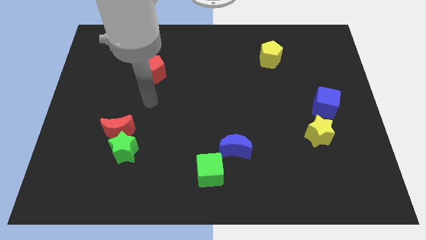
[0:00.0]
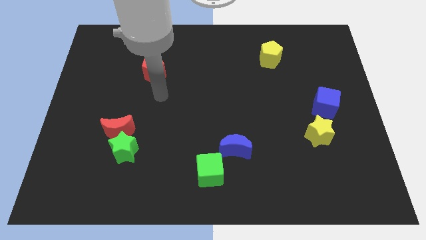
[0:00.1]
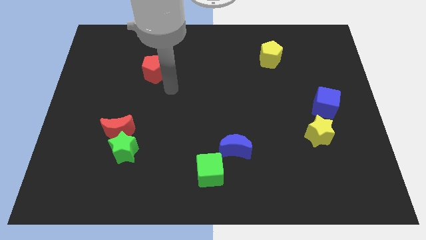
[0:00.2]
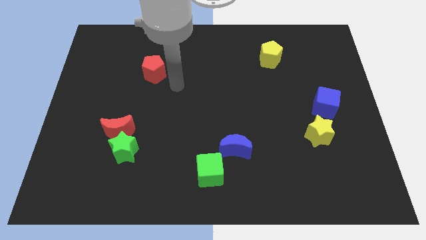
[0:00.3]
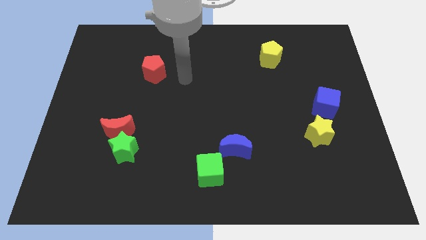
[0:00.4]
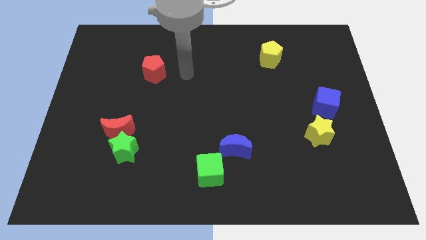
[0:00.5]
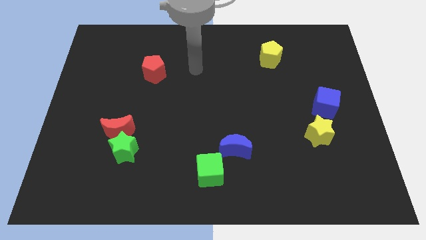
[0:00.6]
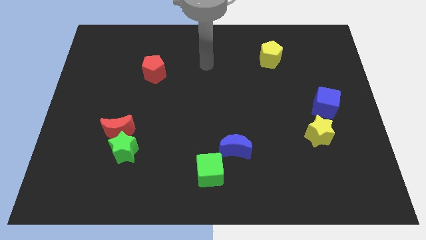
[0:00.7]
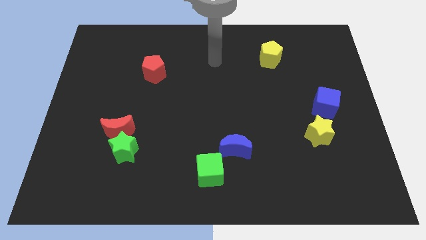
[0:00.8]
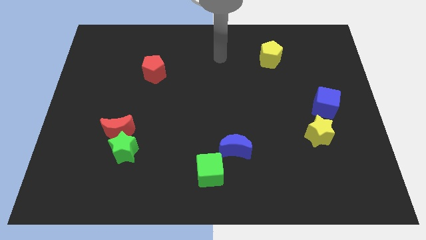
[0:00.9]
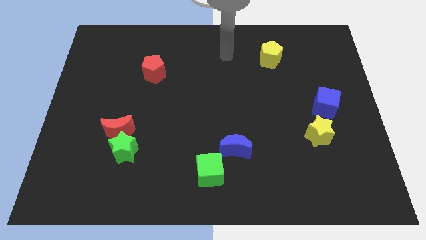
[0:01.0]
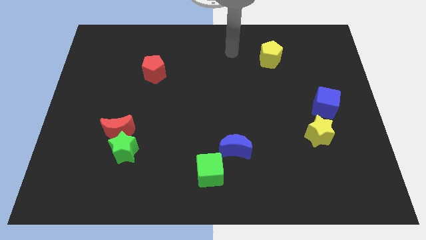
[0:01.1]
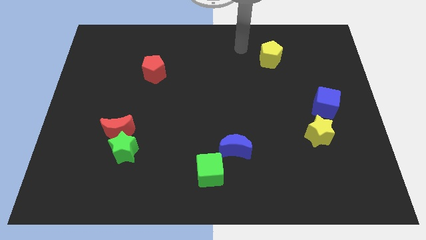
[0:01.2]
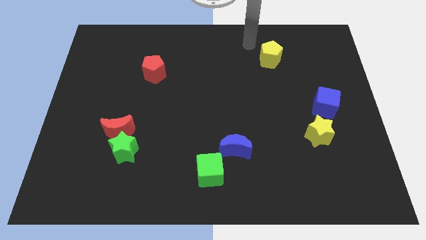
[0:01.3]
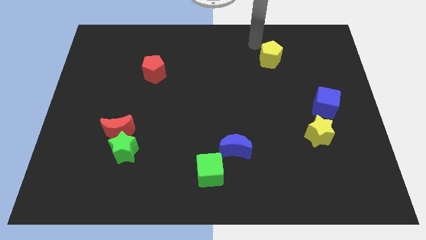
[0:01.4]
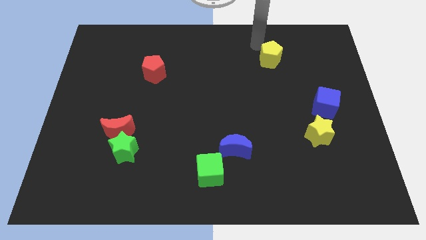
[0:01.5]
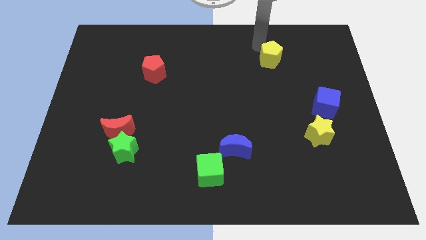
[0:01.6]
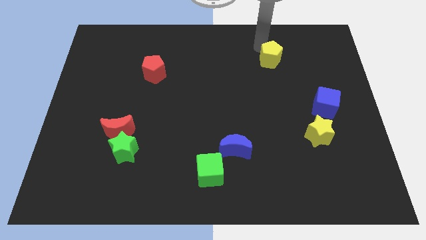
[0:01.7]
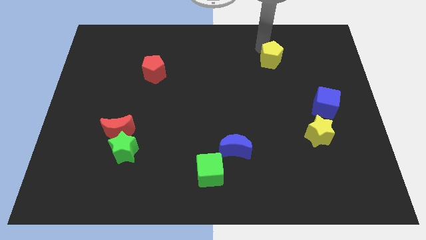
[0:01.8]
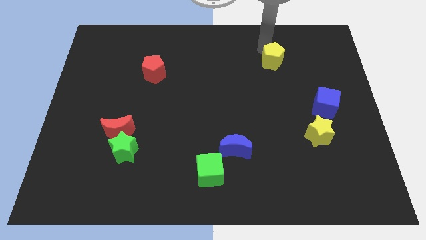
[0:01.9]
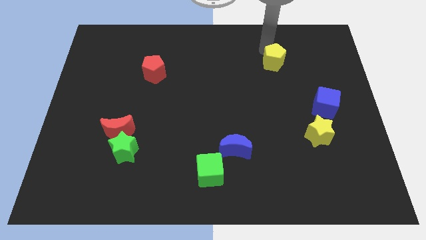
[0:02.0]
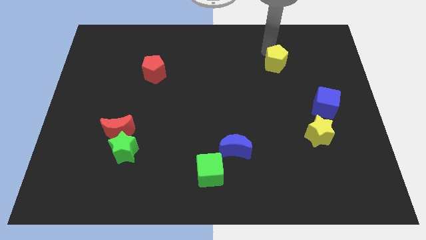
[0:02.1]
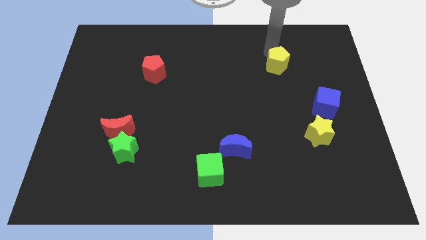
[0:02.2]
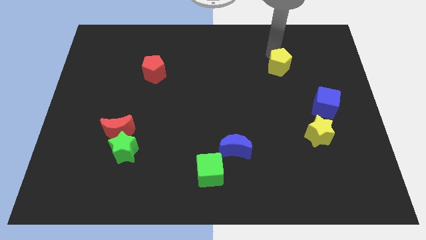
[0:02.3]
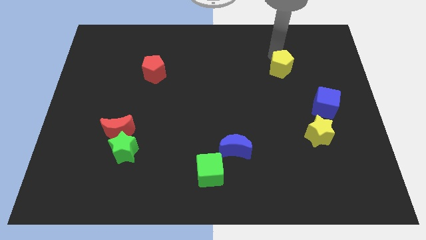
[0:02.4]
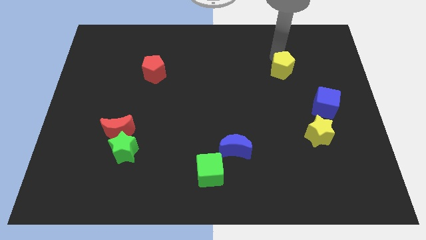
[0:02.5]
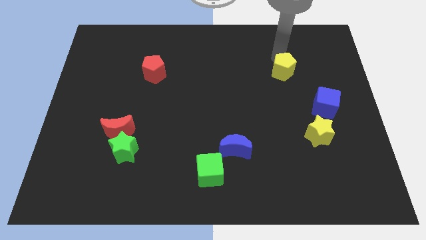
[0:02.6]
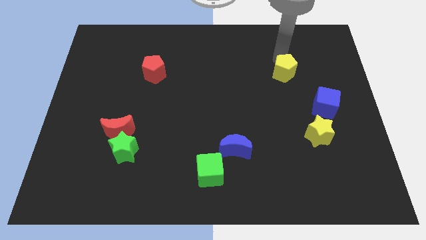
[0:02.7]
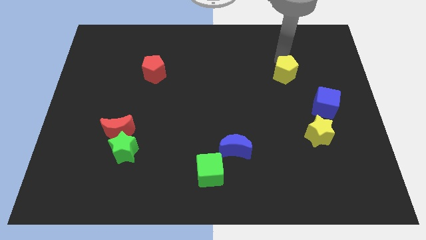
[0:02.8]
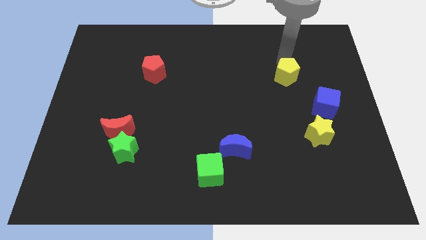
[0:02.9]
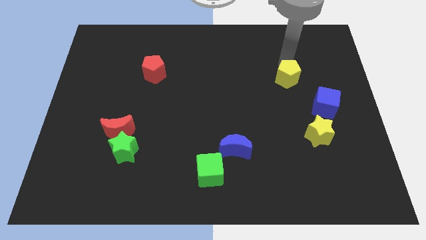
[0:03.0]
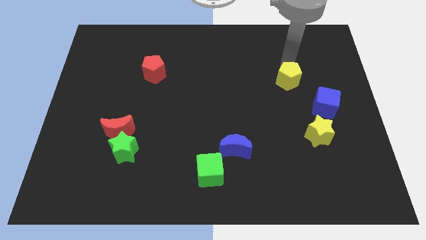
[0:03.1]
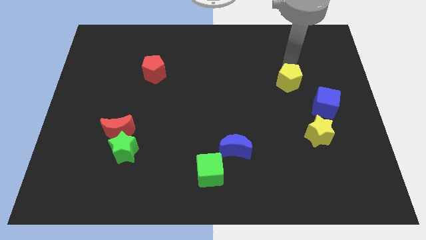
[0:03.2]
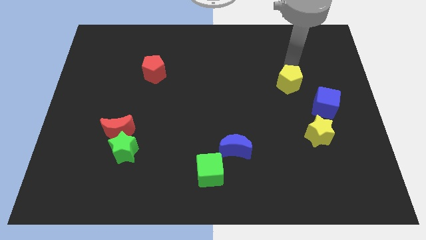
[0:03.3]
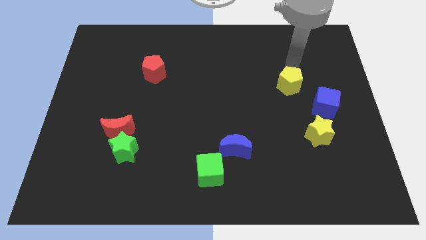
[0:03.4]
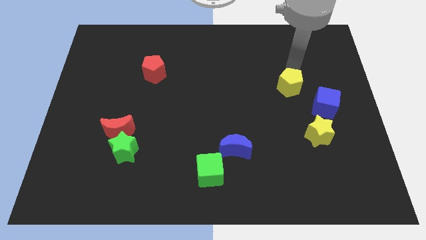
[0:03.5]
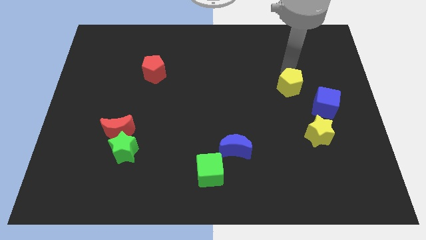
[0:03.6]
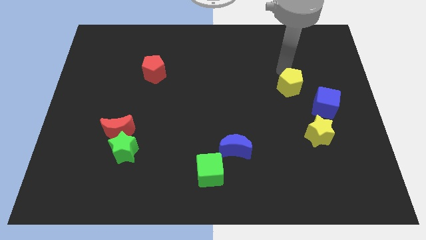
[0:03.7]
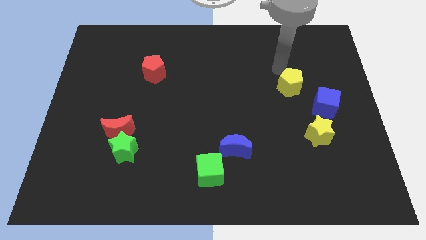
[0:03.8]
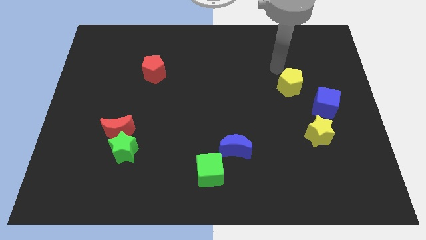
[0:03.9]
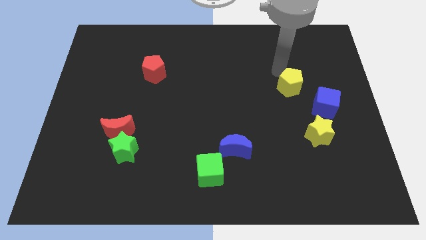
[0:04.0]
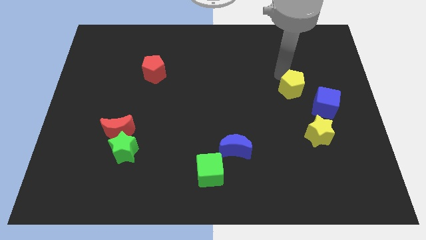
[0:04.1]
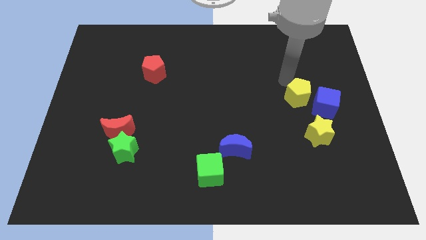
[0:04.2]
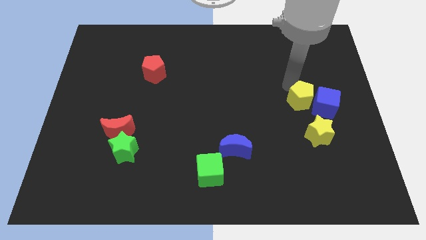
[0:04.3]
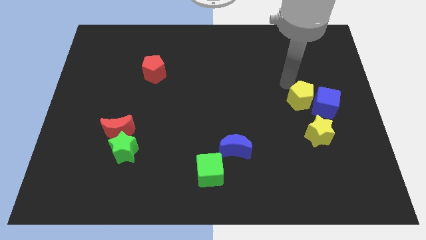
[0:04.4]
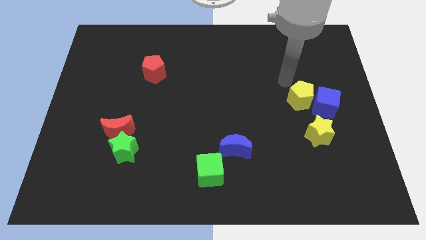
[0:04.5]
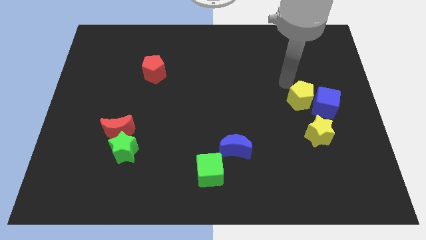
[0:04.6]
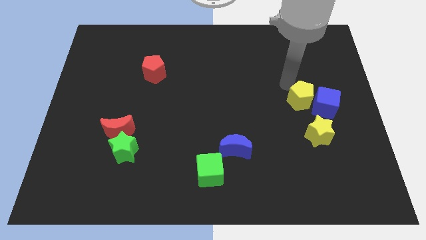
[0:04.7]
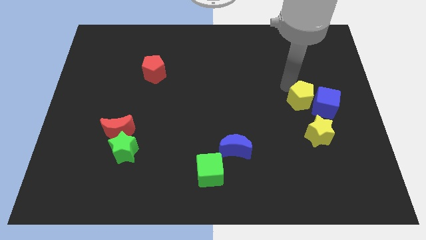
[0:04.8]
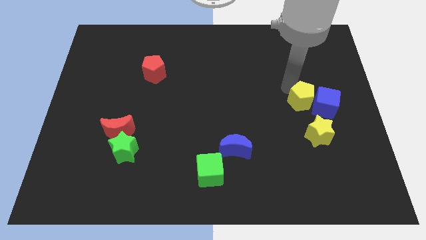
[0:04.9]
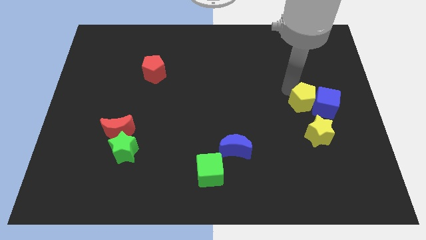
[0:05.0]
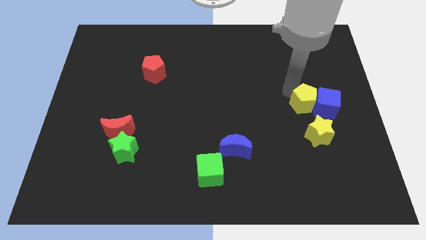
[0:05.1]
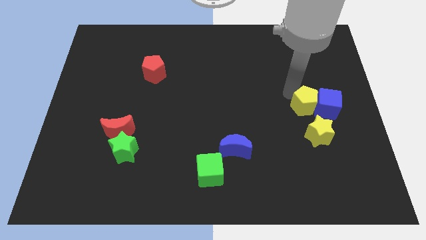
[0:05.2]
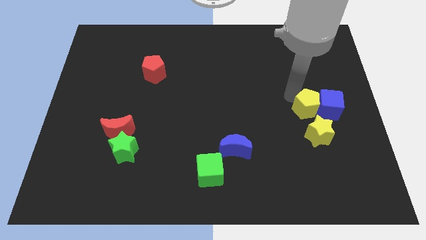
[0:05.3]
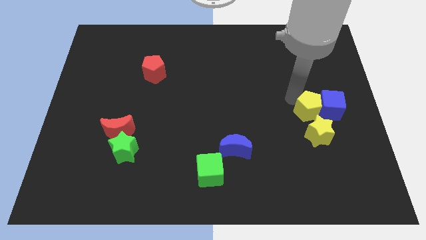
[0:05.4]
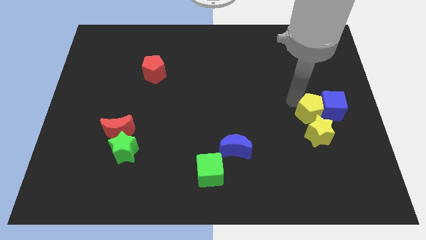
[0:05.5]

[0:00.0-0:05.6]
push the yellow pentagon next to the yellow star

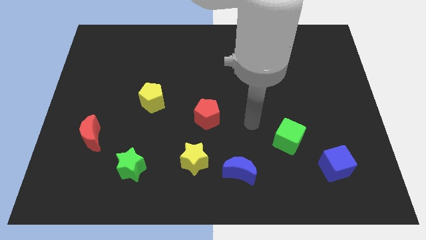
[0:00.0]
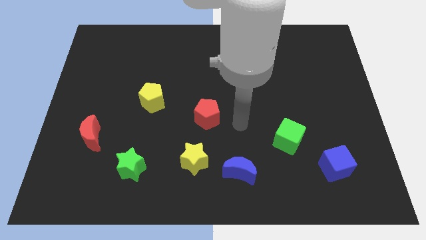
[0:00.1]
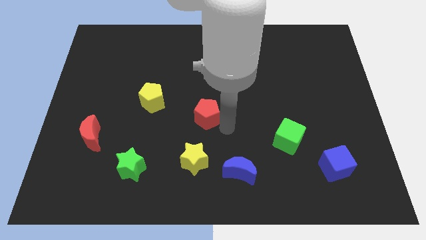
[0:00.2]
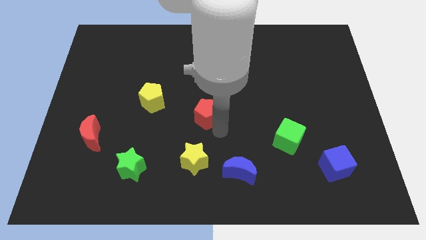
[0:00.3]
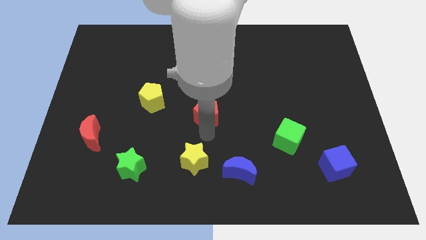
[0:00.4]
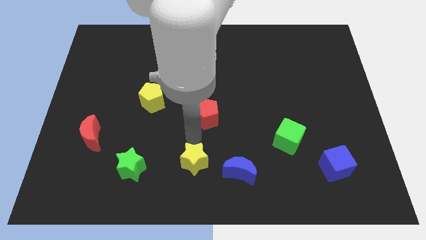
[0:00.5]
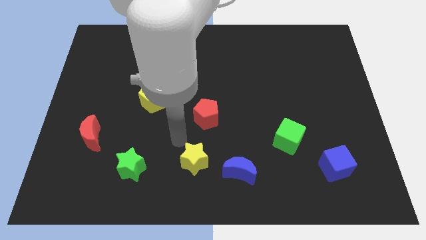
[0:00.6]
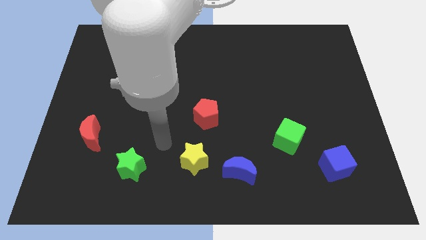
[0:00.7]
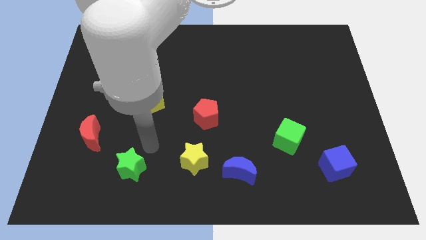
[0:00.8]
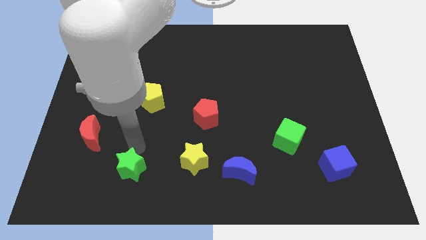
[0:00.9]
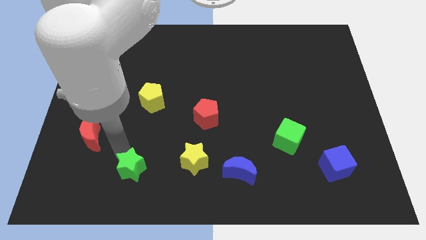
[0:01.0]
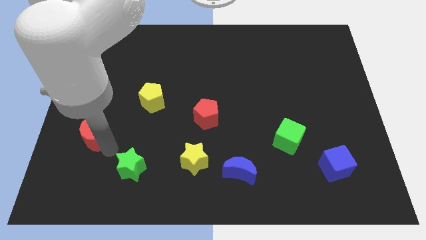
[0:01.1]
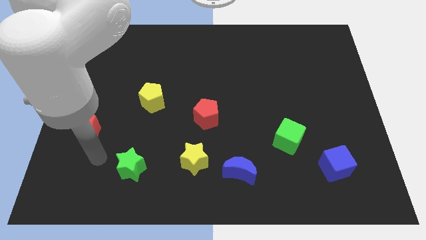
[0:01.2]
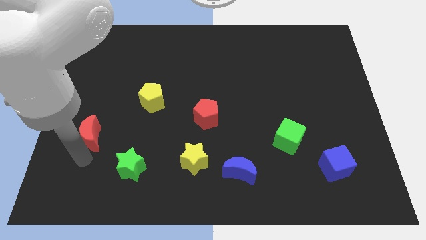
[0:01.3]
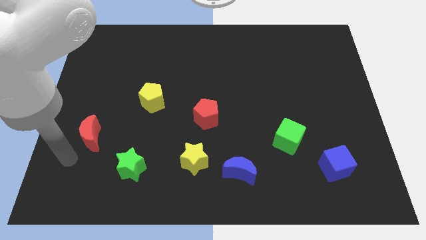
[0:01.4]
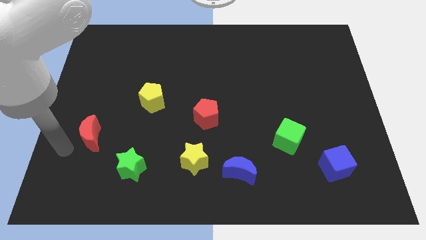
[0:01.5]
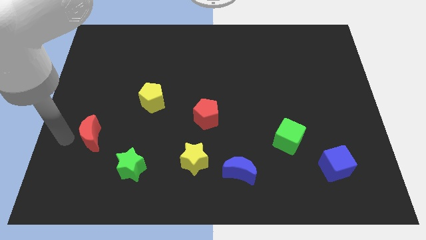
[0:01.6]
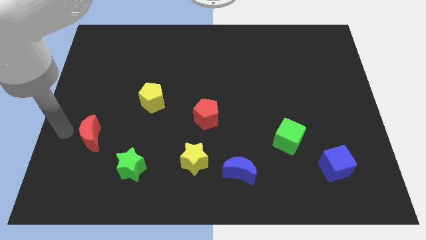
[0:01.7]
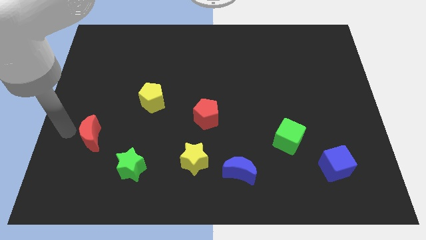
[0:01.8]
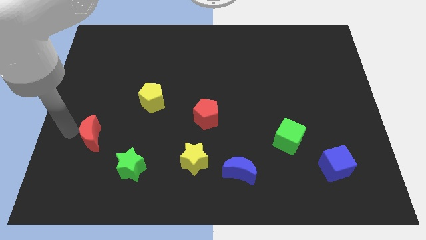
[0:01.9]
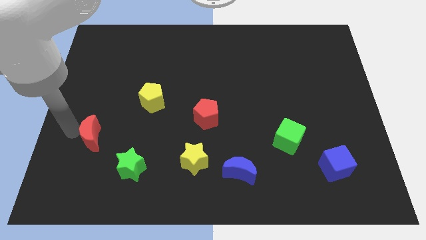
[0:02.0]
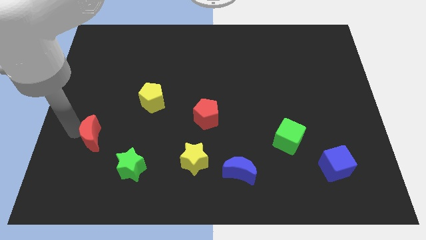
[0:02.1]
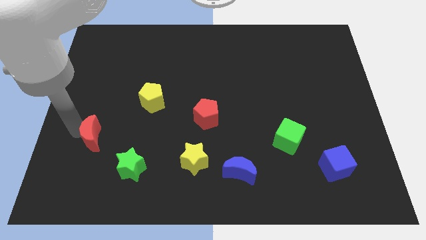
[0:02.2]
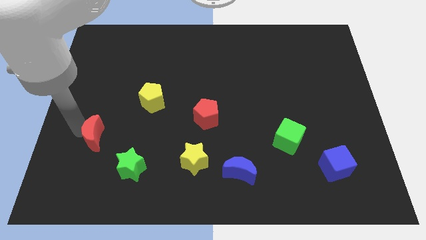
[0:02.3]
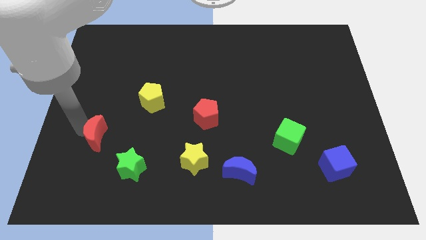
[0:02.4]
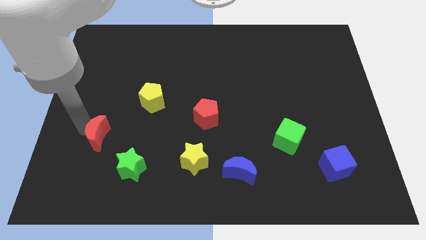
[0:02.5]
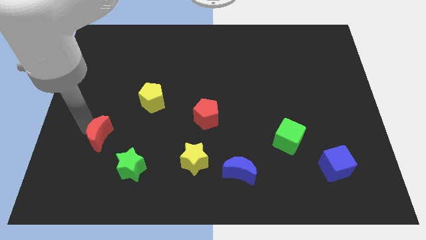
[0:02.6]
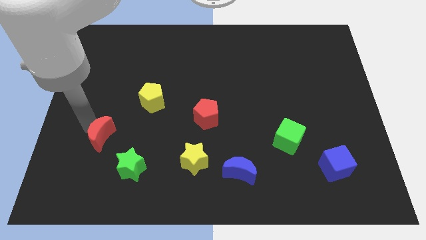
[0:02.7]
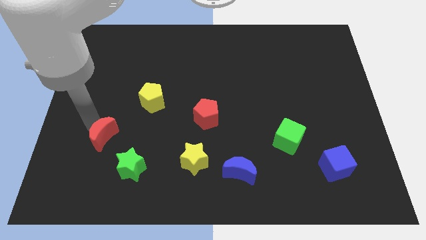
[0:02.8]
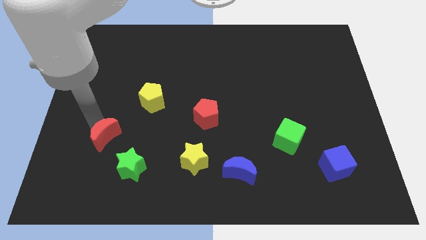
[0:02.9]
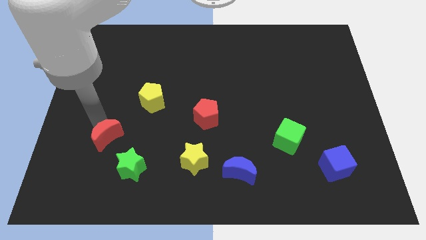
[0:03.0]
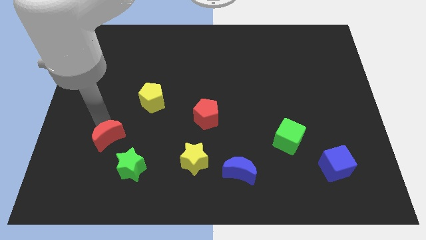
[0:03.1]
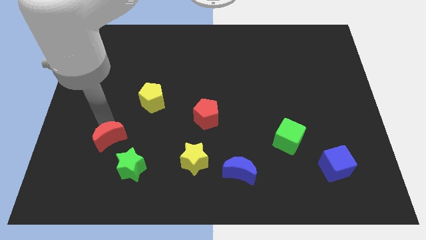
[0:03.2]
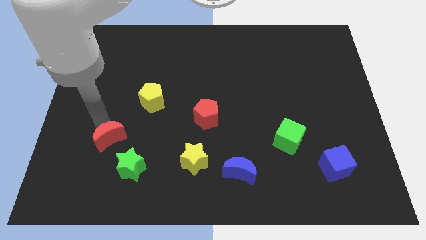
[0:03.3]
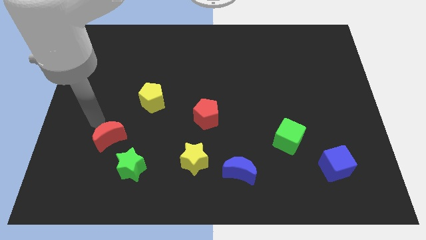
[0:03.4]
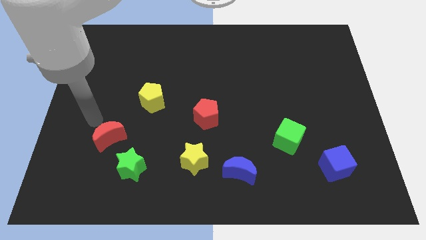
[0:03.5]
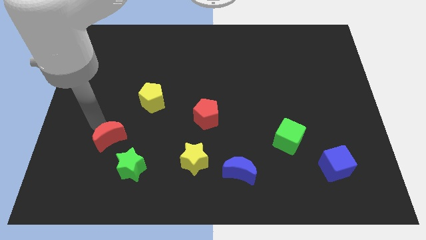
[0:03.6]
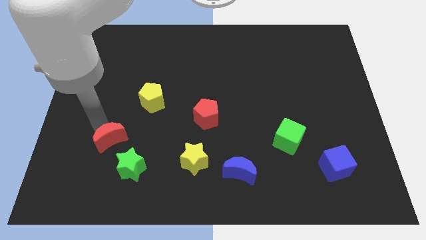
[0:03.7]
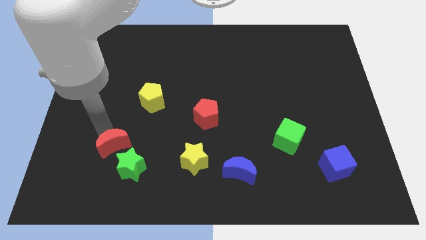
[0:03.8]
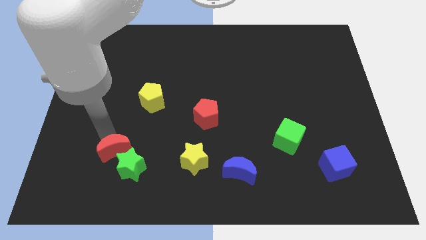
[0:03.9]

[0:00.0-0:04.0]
slide the red moon close to the green star
